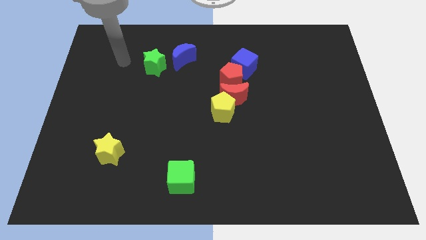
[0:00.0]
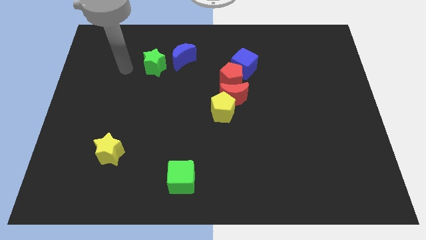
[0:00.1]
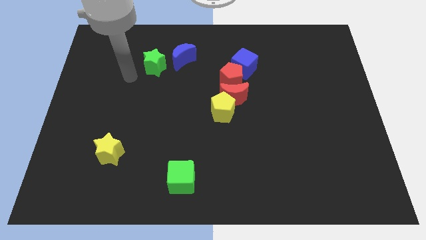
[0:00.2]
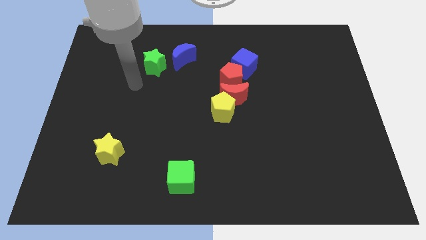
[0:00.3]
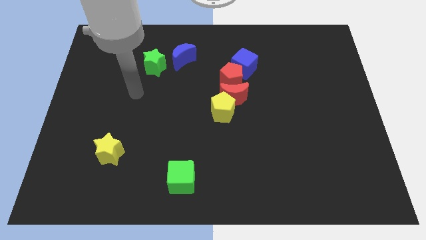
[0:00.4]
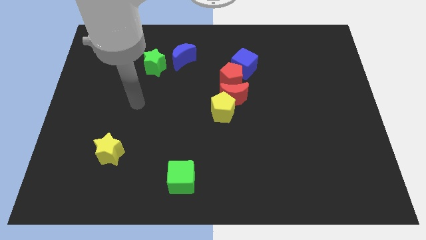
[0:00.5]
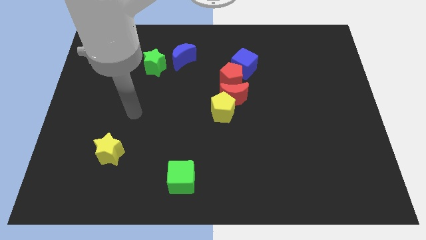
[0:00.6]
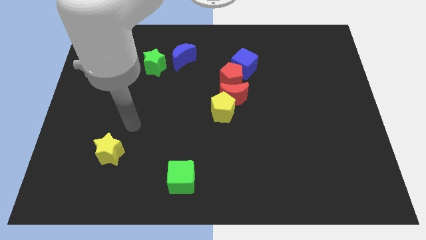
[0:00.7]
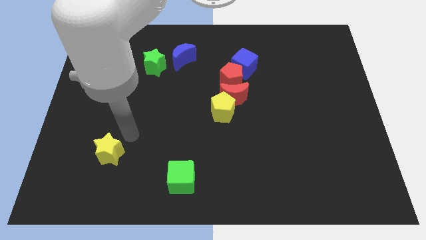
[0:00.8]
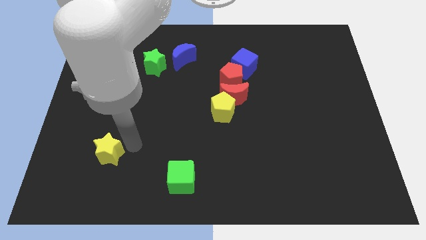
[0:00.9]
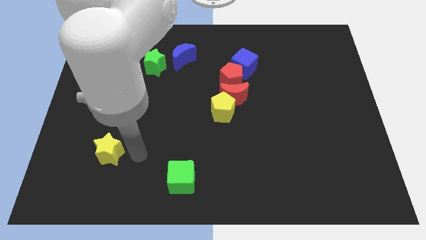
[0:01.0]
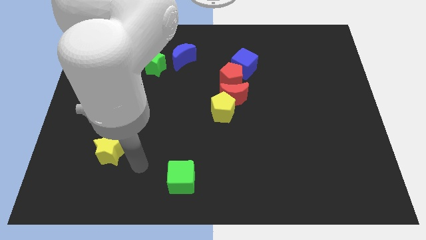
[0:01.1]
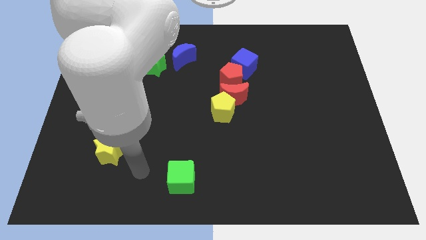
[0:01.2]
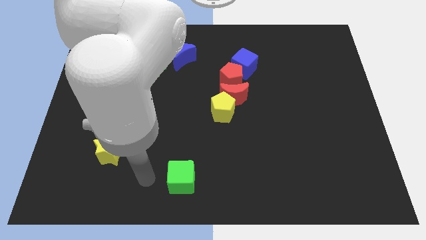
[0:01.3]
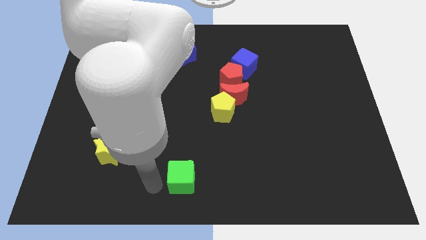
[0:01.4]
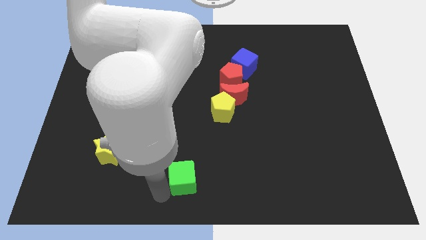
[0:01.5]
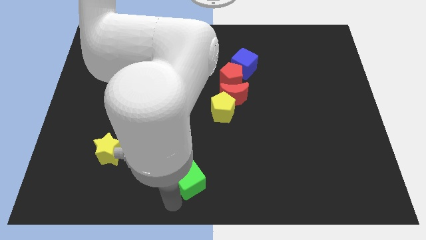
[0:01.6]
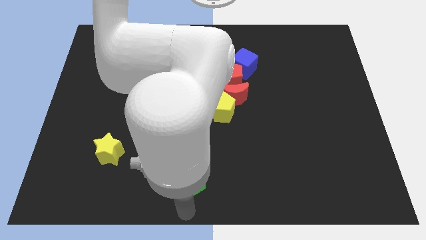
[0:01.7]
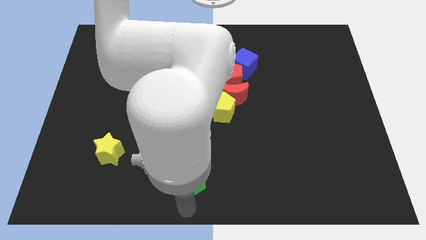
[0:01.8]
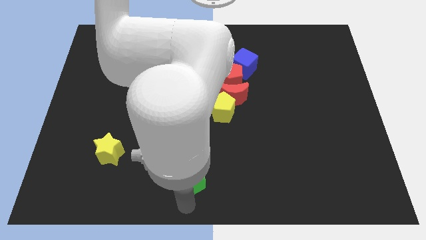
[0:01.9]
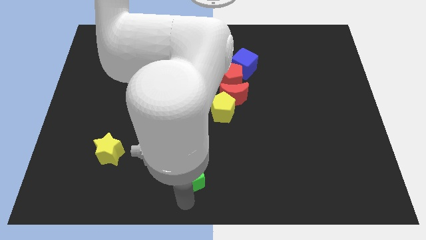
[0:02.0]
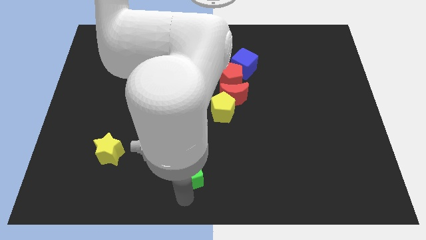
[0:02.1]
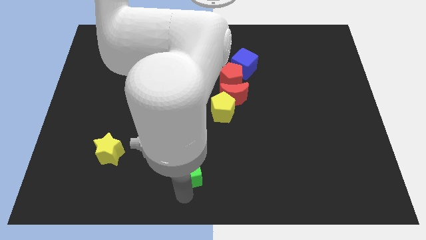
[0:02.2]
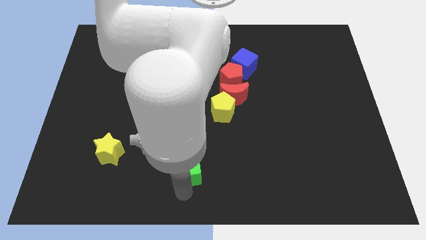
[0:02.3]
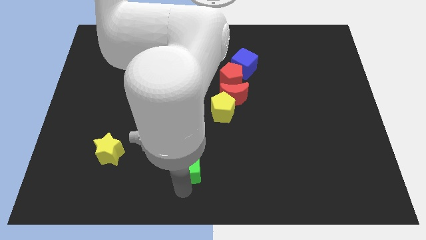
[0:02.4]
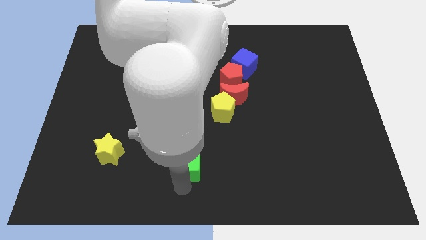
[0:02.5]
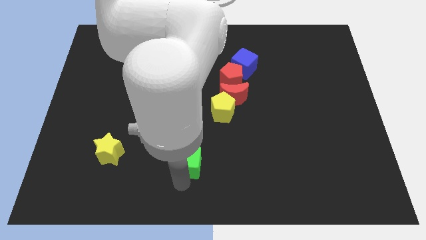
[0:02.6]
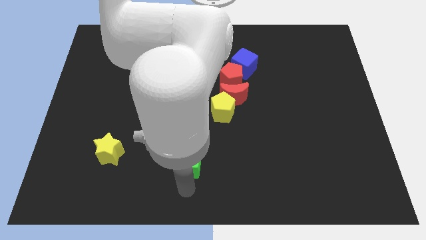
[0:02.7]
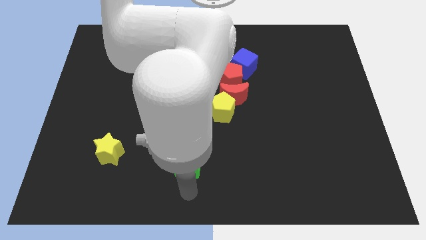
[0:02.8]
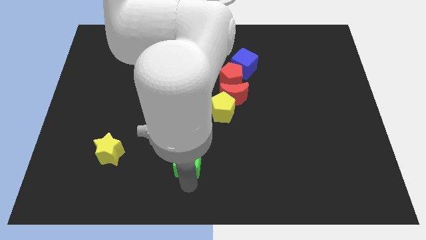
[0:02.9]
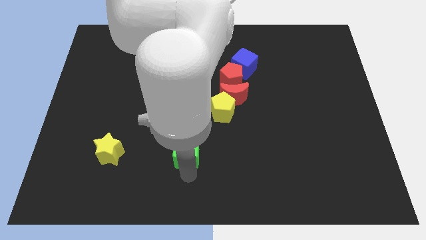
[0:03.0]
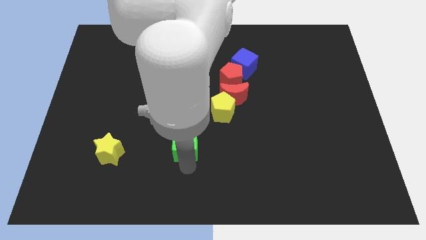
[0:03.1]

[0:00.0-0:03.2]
move the green cube up a little

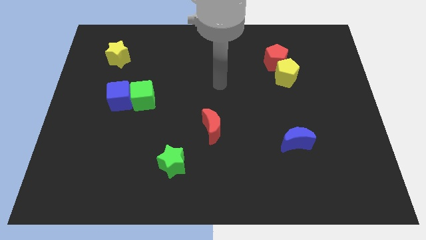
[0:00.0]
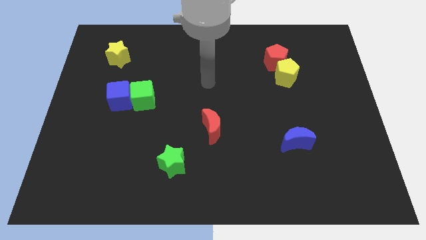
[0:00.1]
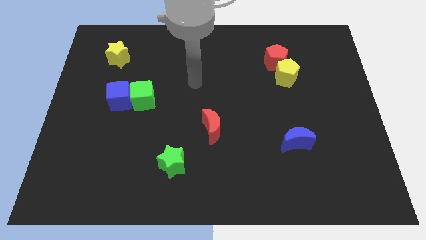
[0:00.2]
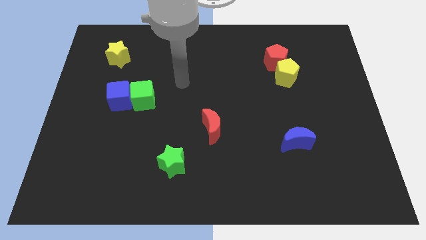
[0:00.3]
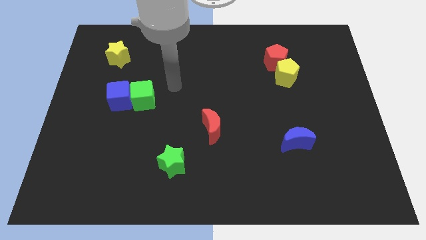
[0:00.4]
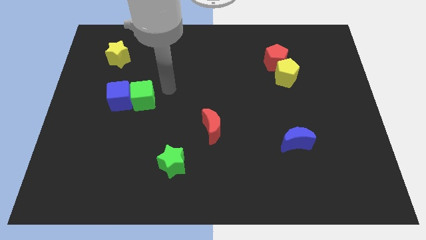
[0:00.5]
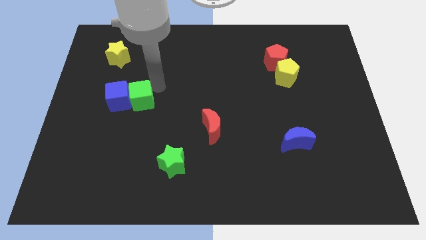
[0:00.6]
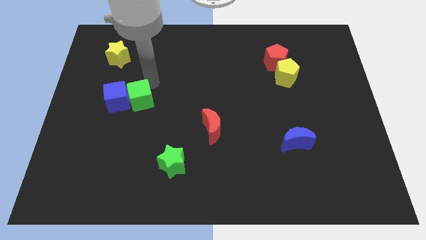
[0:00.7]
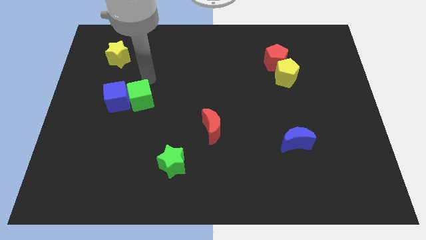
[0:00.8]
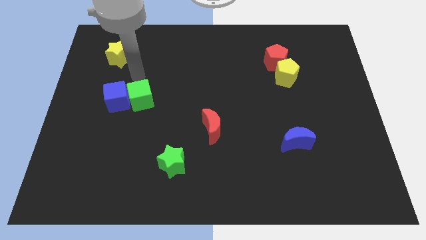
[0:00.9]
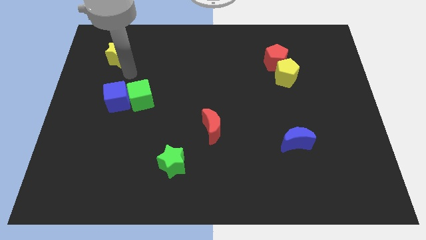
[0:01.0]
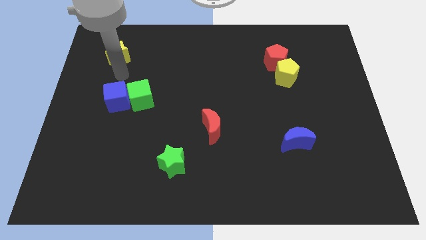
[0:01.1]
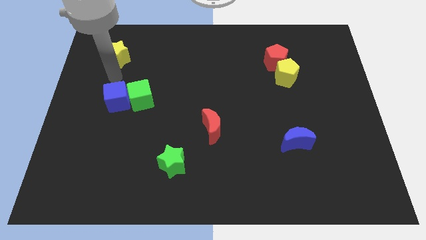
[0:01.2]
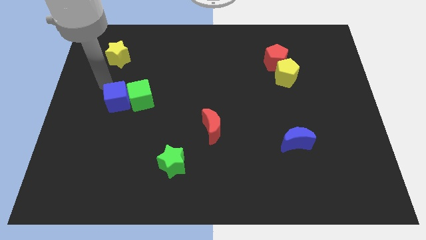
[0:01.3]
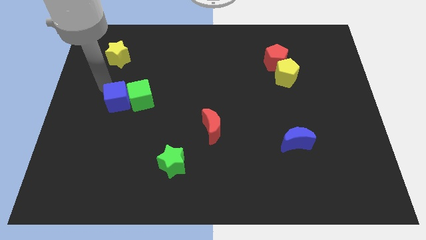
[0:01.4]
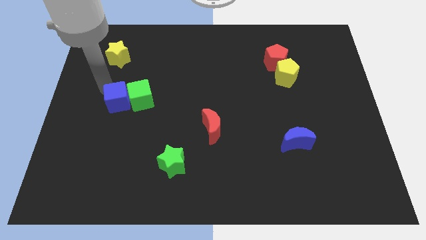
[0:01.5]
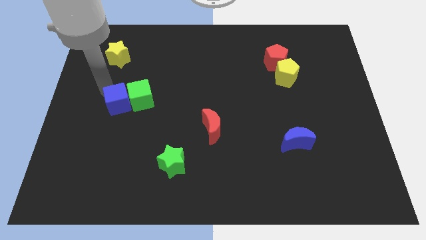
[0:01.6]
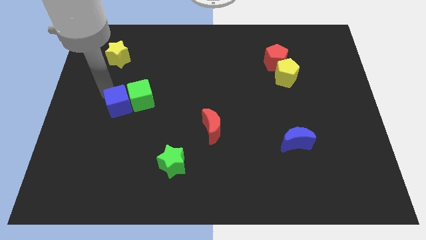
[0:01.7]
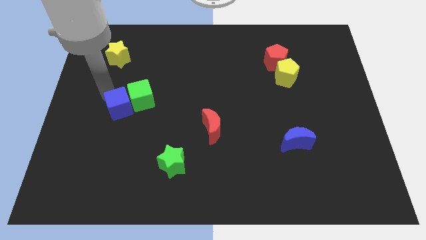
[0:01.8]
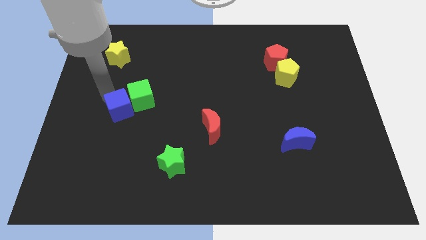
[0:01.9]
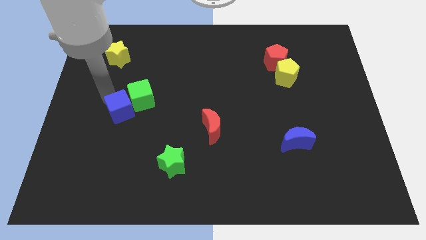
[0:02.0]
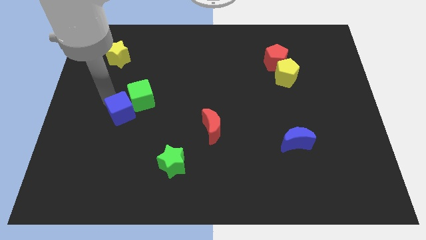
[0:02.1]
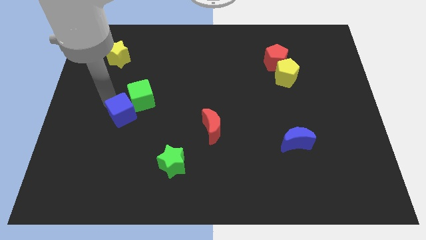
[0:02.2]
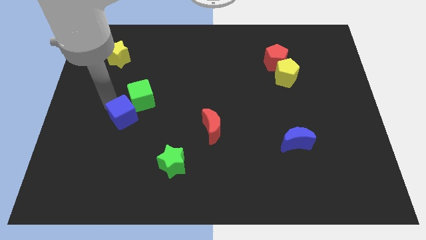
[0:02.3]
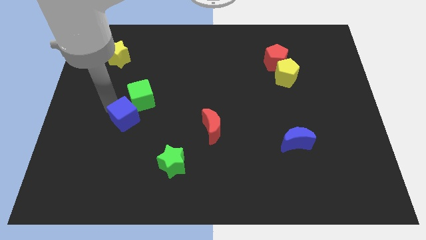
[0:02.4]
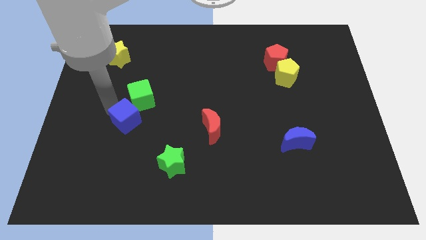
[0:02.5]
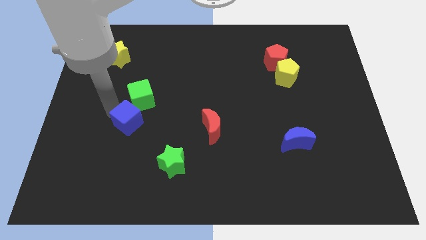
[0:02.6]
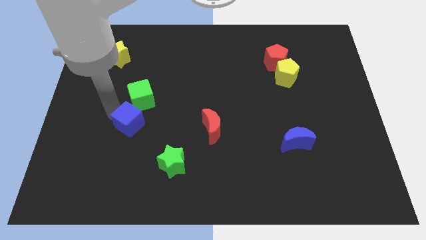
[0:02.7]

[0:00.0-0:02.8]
move the blue cube somewhat downwards and right diagonally

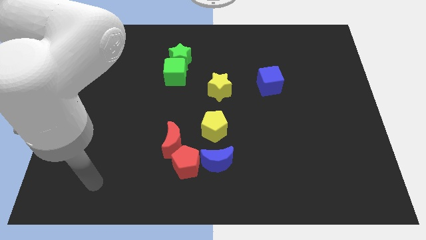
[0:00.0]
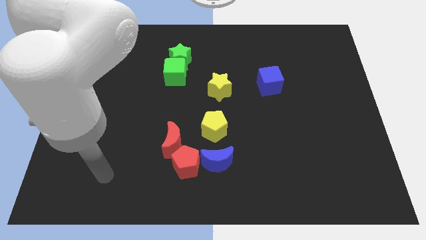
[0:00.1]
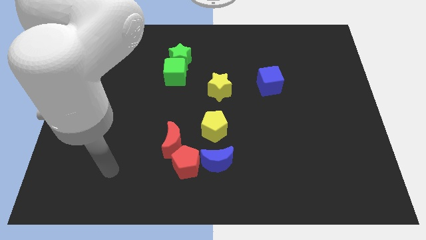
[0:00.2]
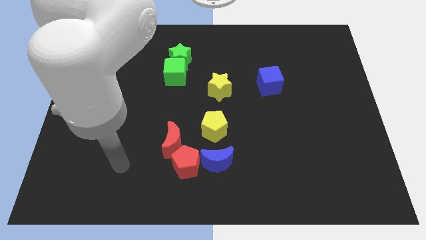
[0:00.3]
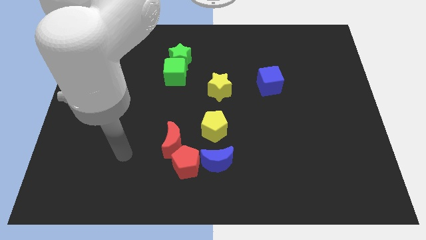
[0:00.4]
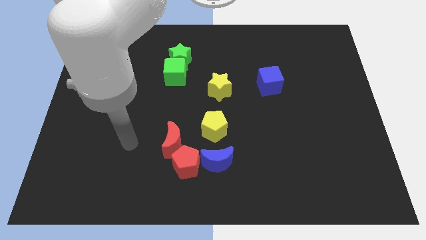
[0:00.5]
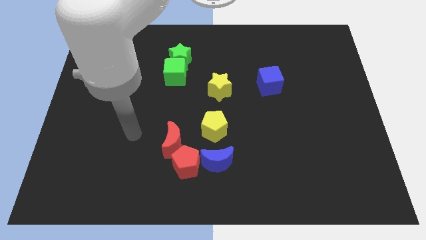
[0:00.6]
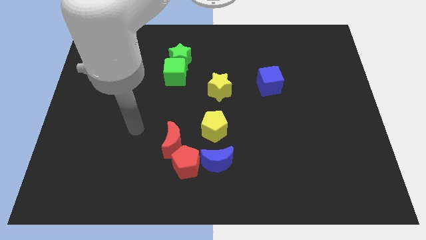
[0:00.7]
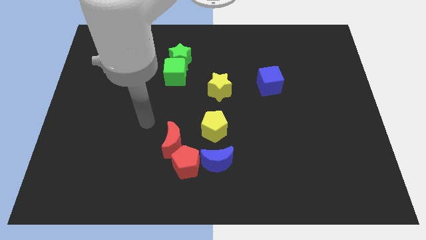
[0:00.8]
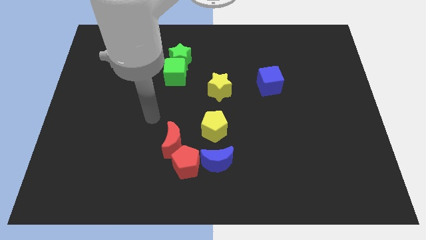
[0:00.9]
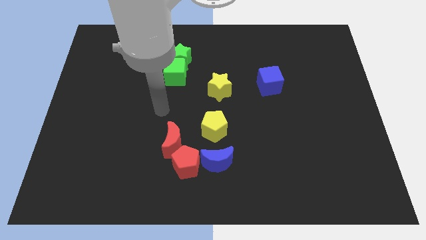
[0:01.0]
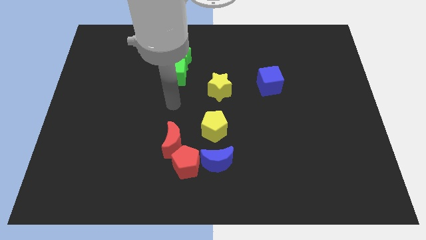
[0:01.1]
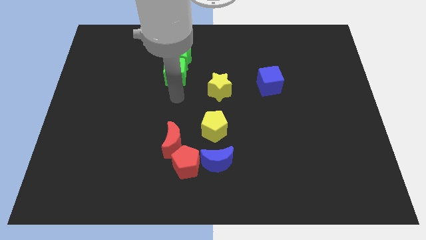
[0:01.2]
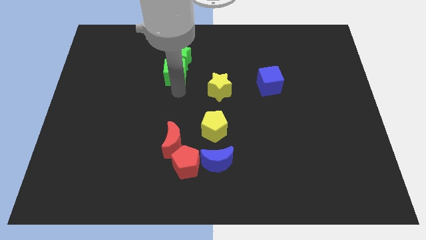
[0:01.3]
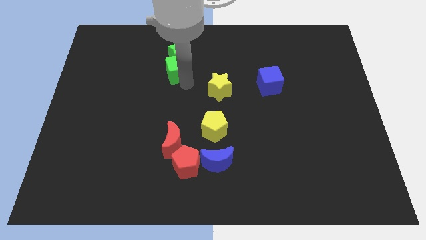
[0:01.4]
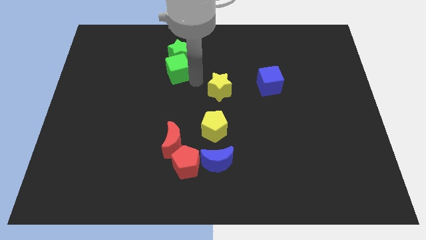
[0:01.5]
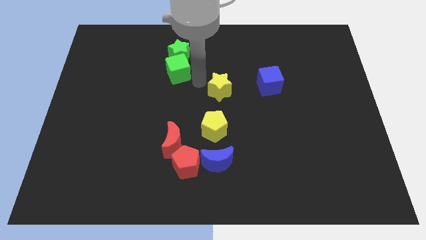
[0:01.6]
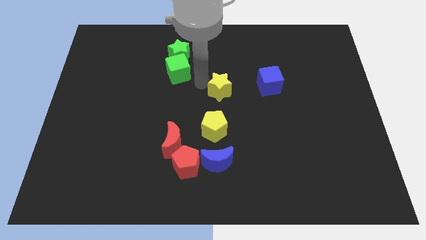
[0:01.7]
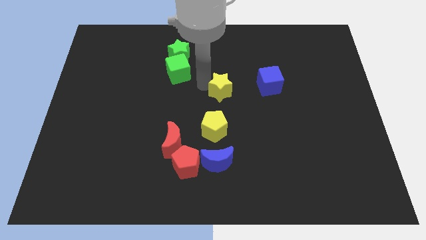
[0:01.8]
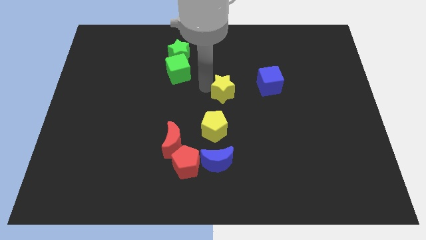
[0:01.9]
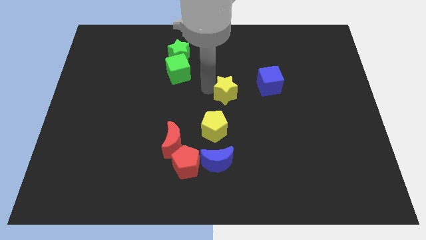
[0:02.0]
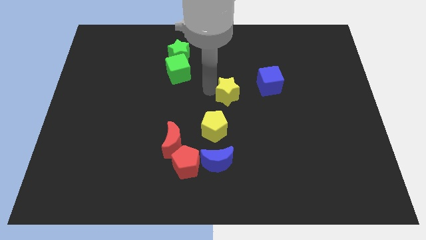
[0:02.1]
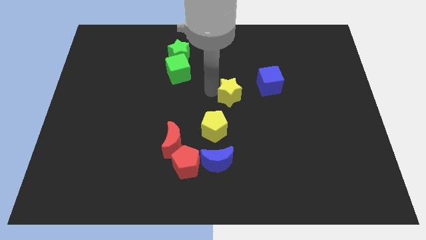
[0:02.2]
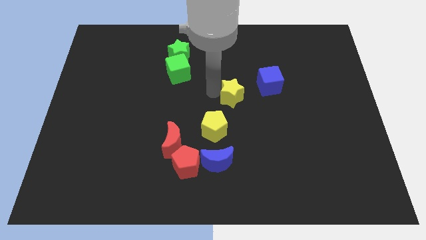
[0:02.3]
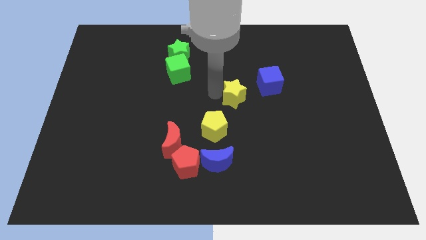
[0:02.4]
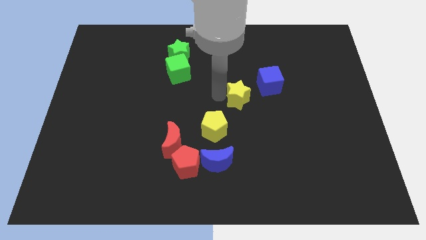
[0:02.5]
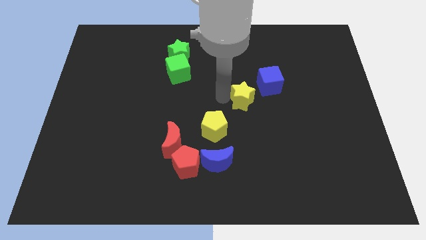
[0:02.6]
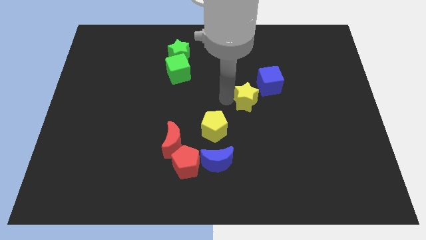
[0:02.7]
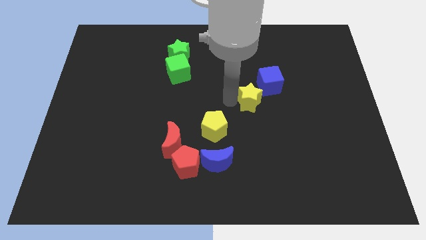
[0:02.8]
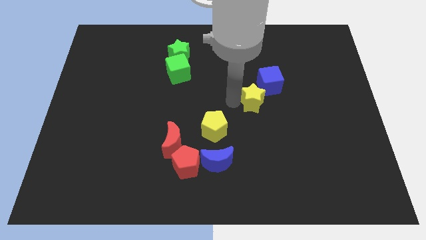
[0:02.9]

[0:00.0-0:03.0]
slightly push the yellow star to the right
